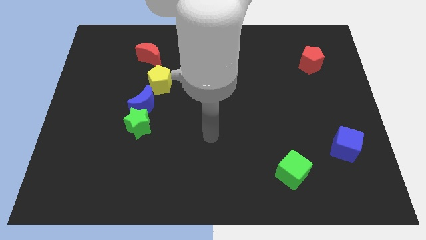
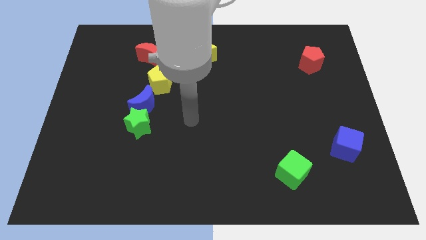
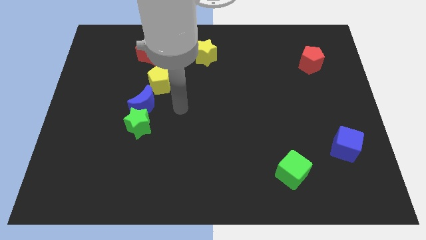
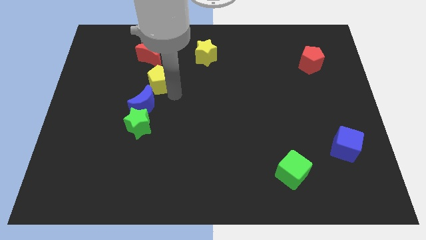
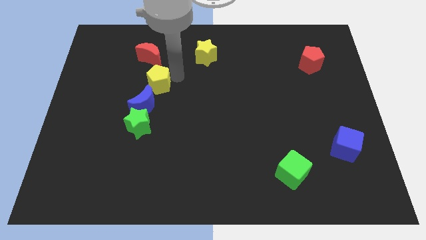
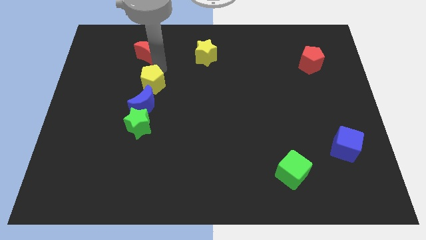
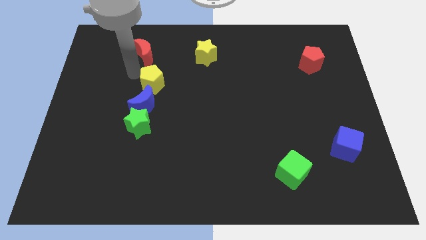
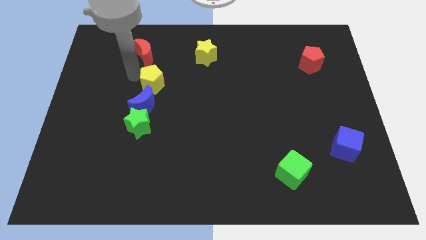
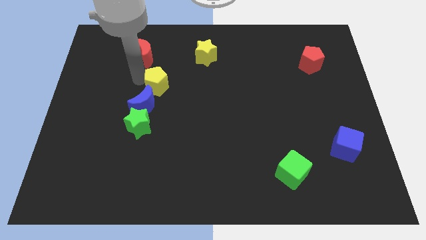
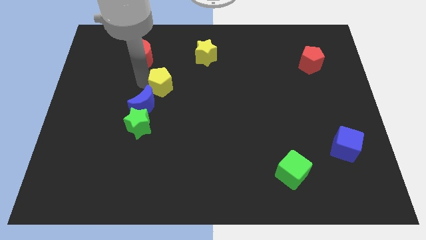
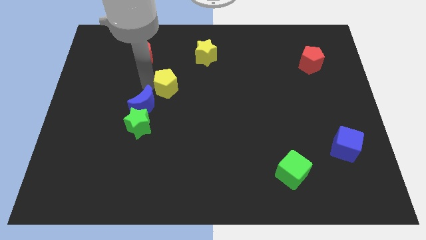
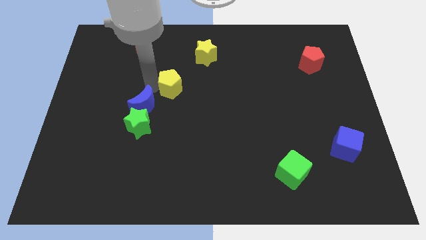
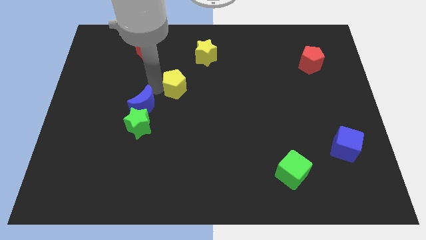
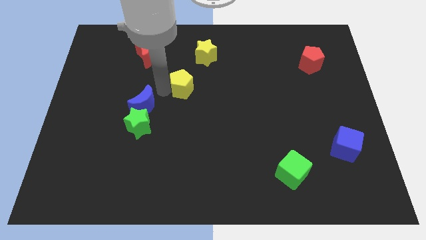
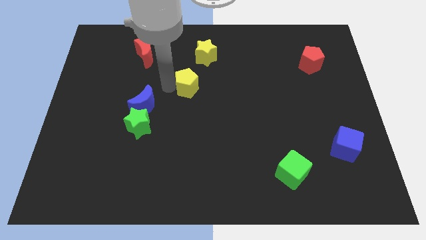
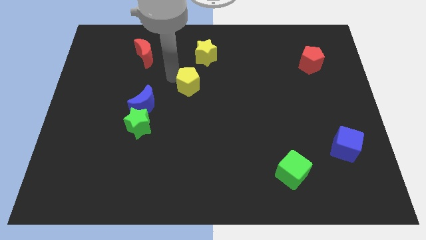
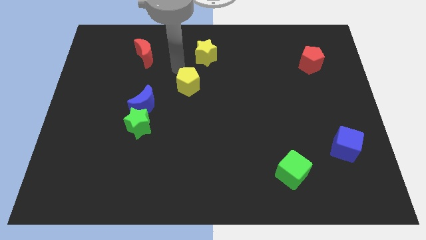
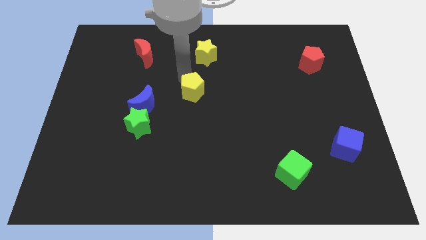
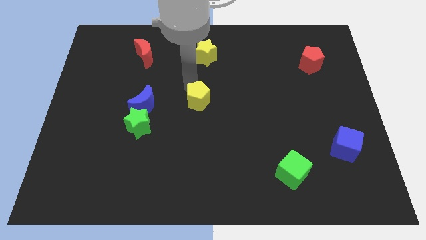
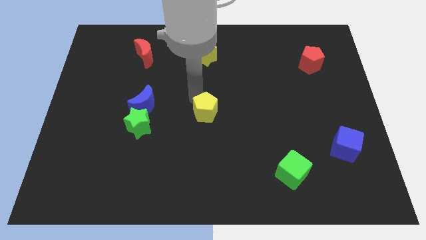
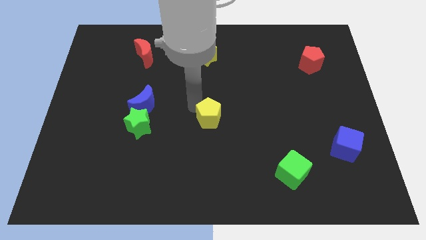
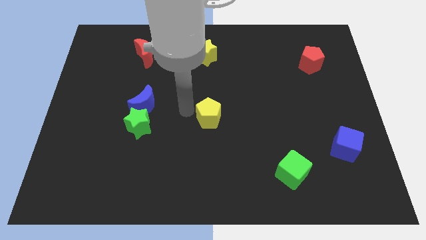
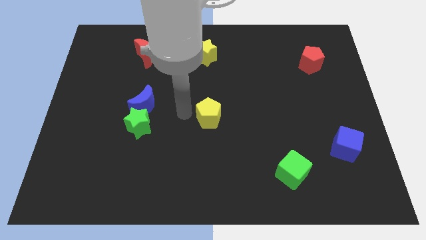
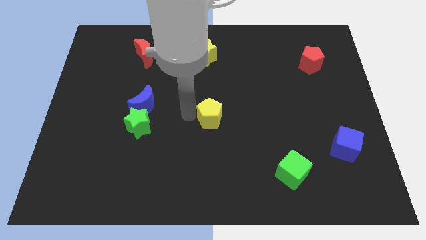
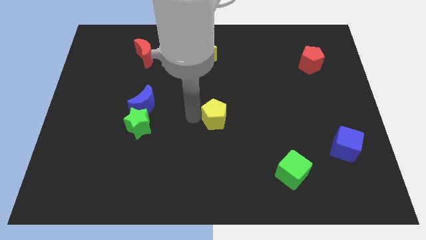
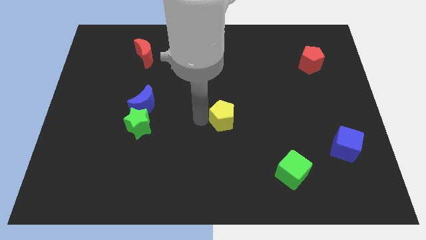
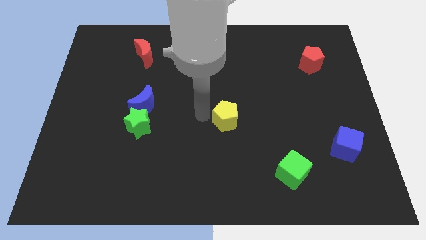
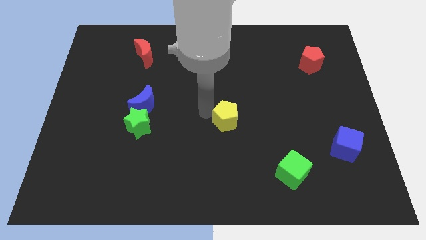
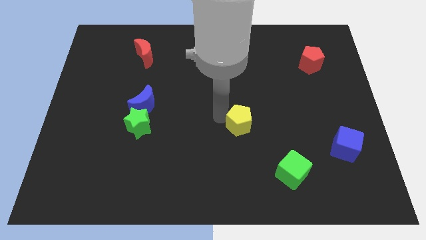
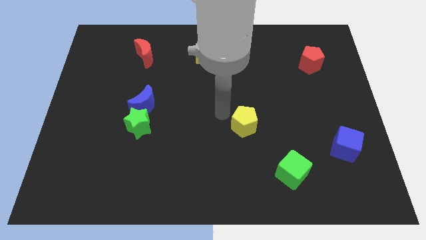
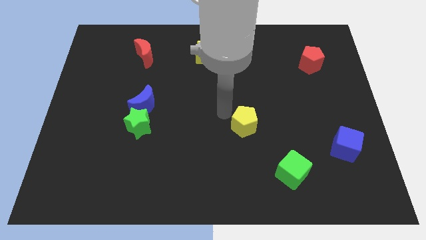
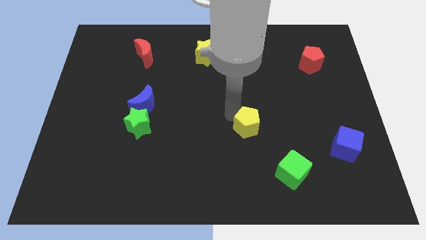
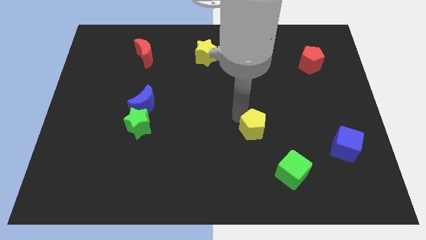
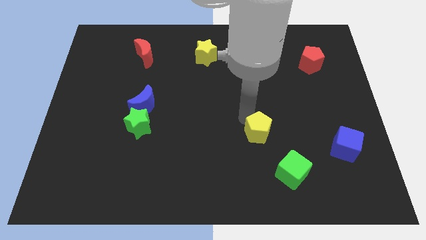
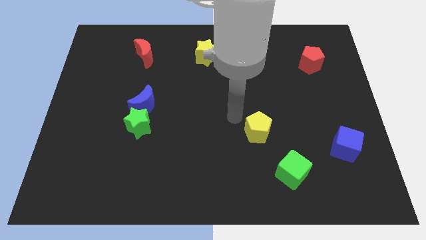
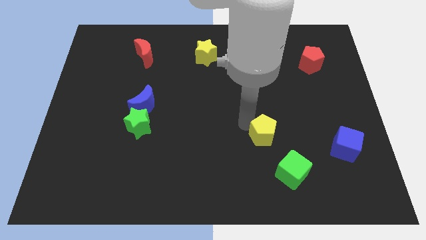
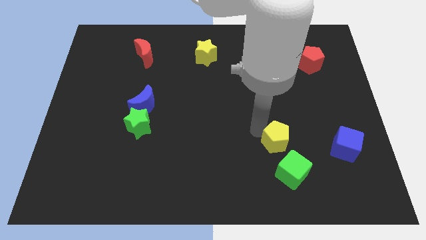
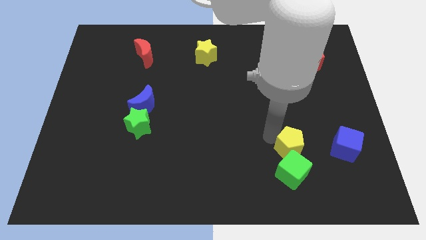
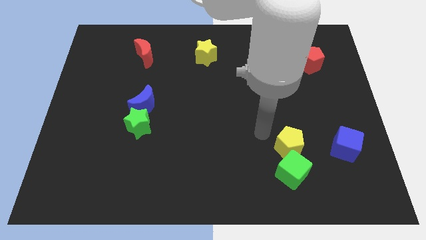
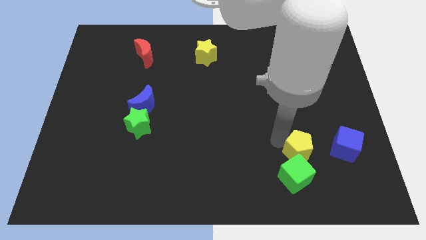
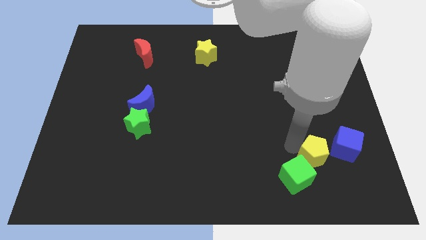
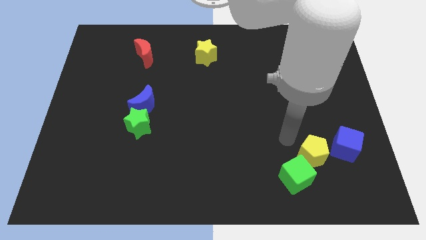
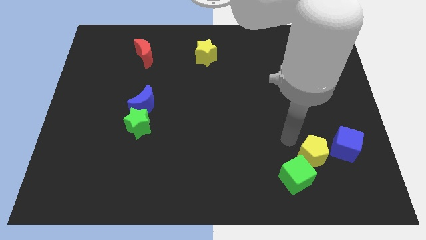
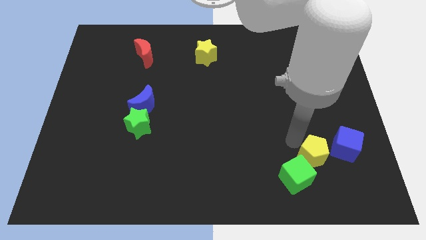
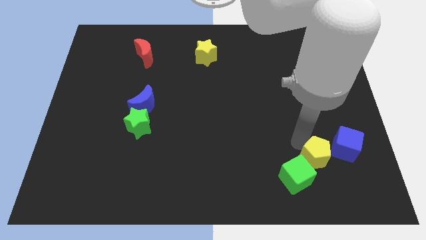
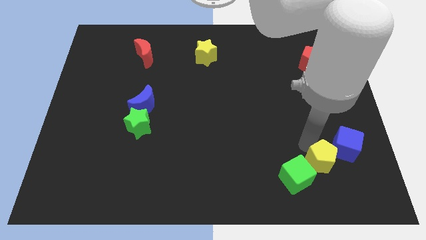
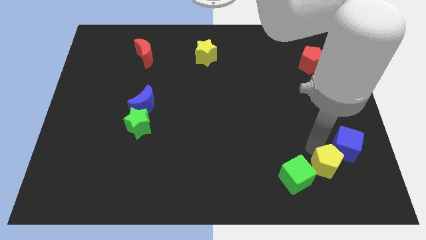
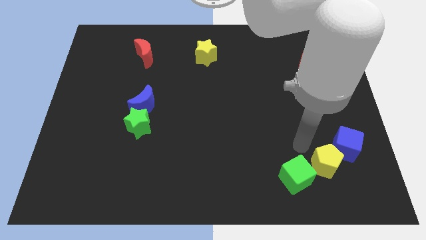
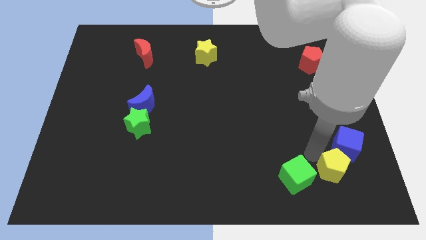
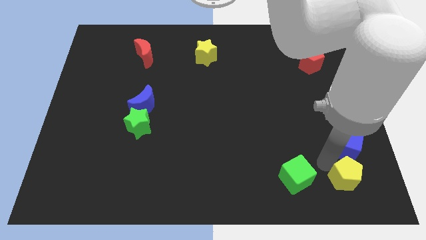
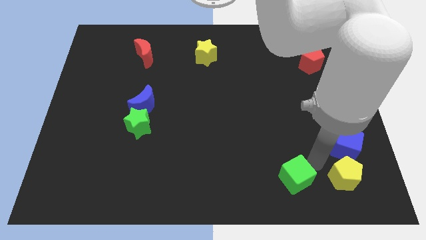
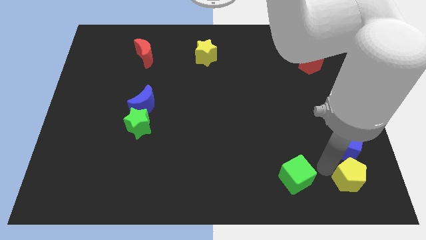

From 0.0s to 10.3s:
move the yellow pentagon to the bottom right of the board

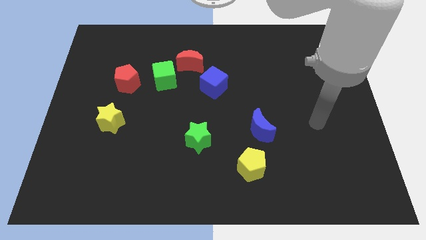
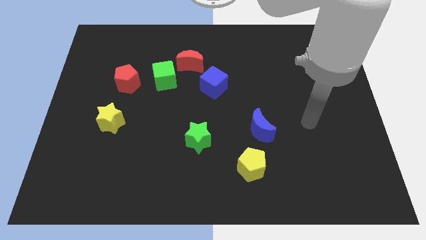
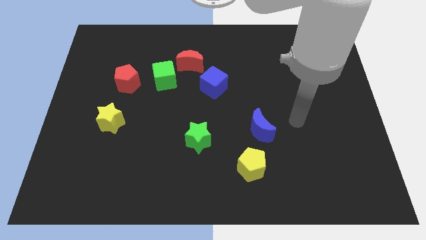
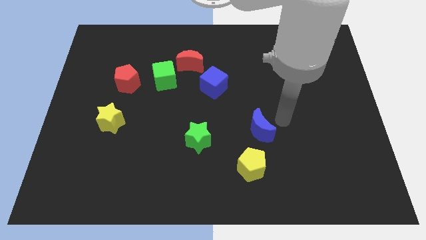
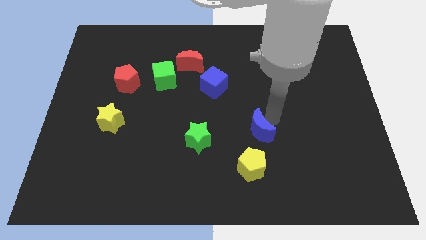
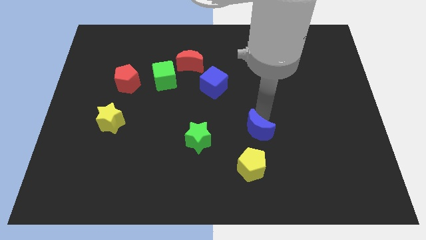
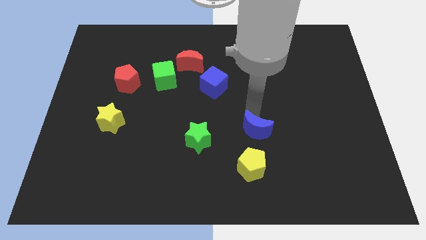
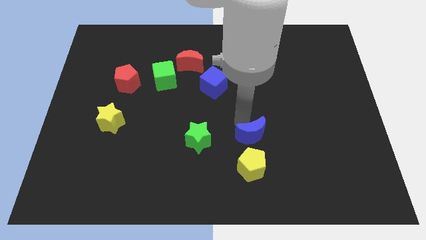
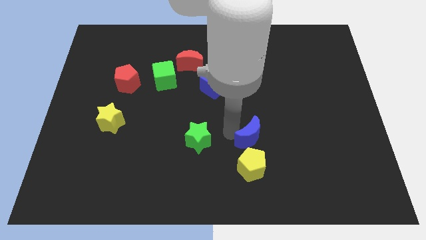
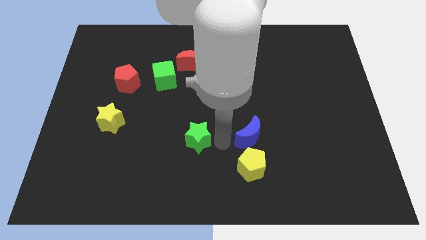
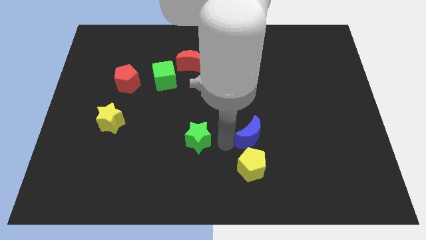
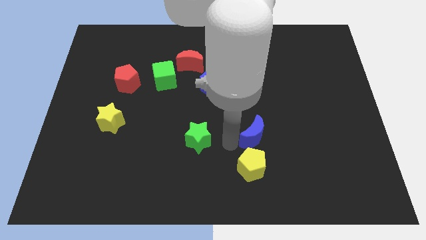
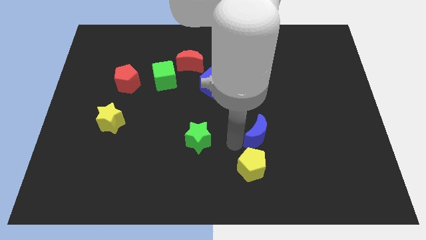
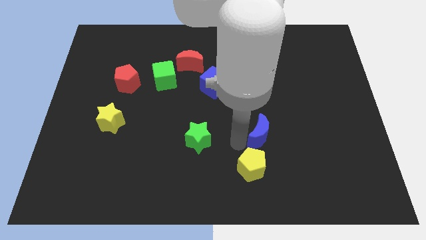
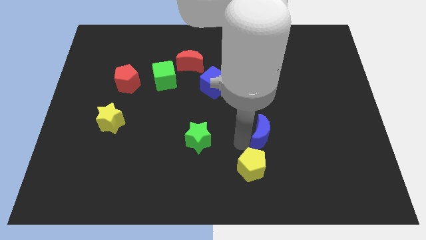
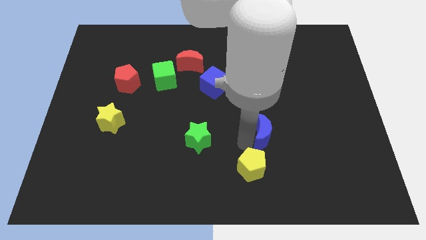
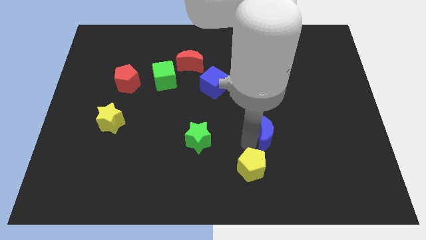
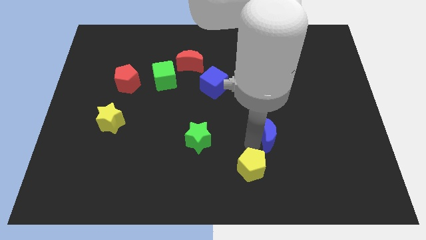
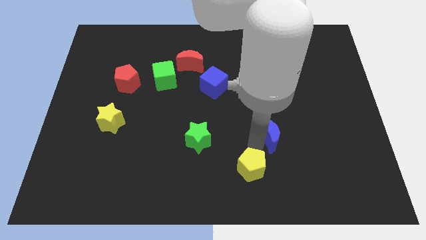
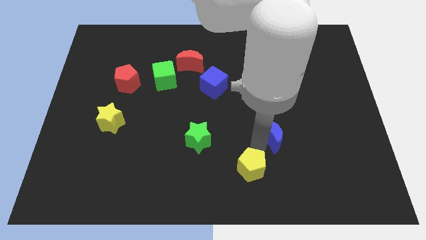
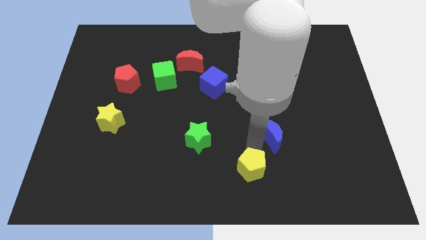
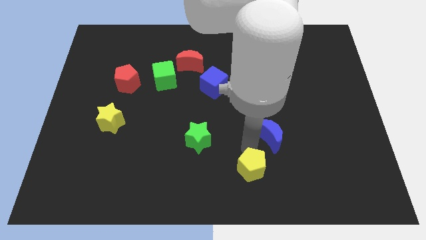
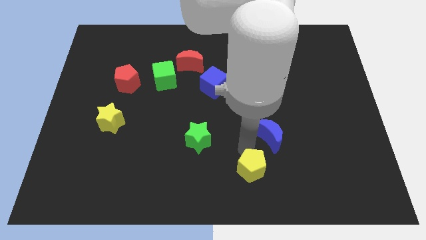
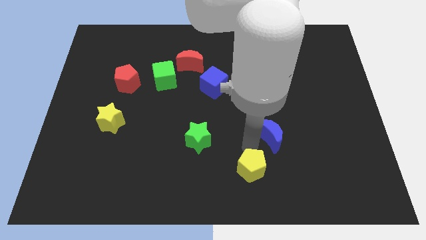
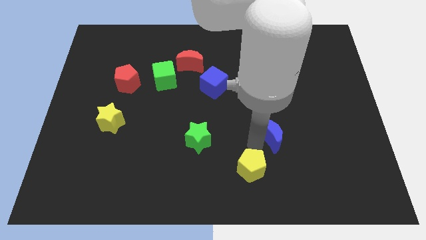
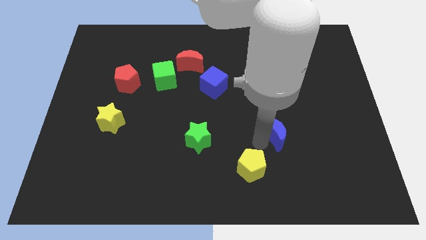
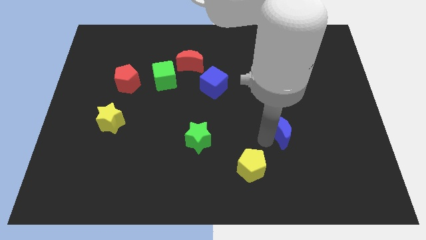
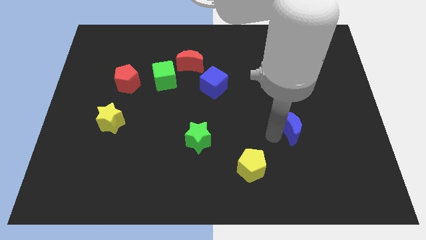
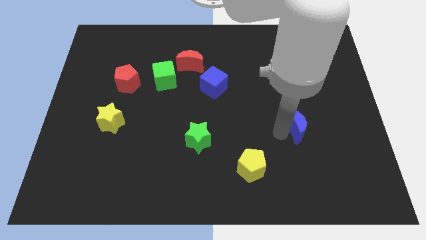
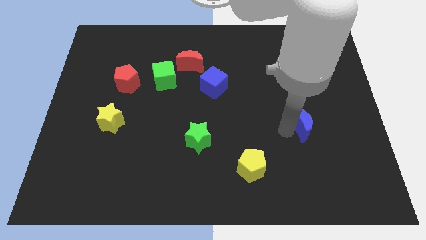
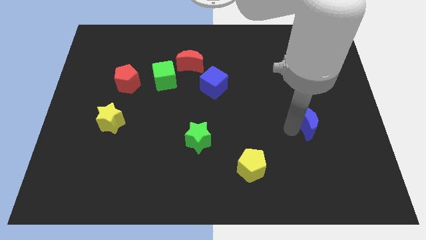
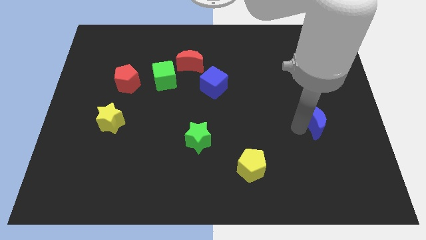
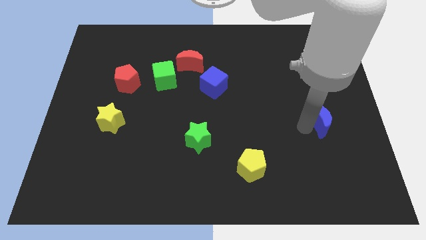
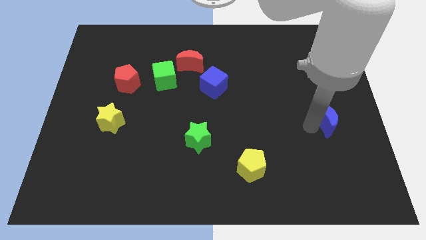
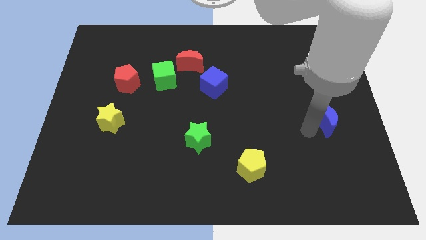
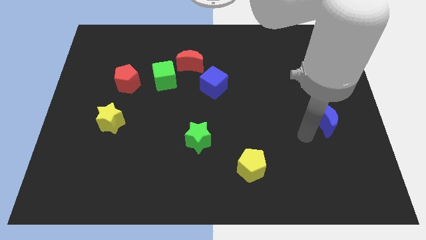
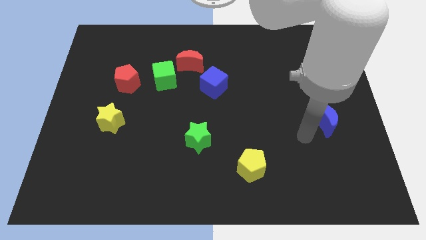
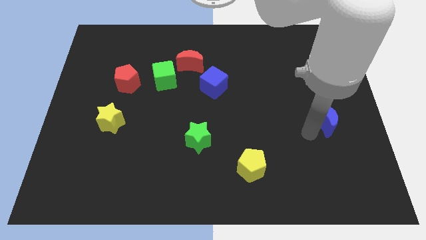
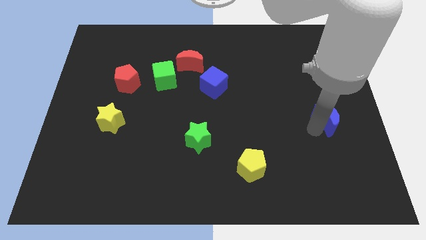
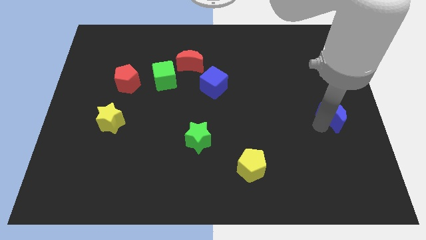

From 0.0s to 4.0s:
move the blue moon to the right side
